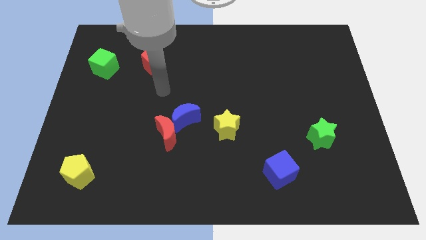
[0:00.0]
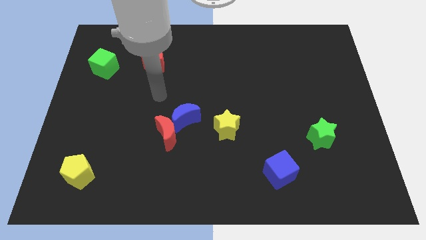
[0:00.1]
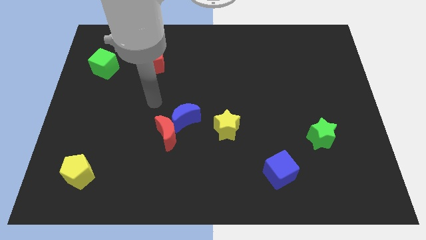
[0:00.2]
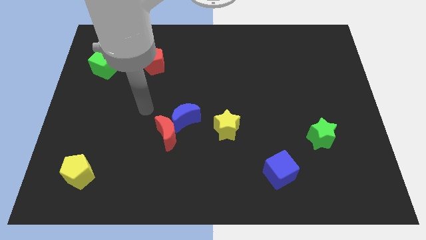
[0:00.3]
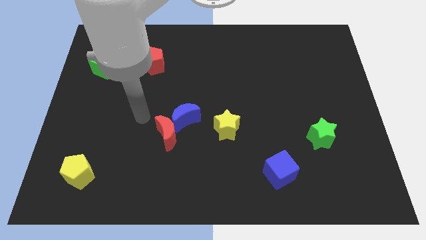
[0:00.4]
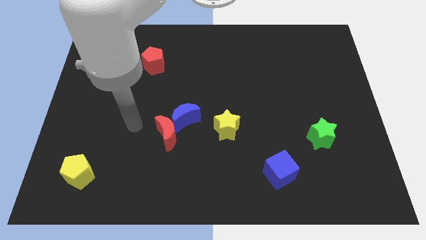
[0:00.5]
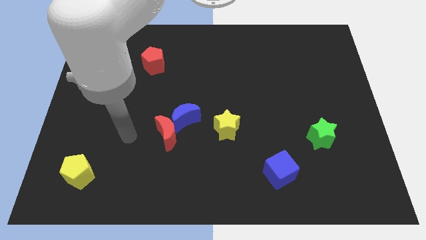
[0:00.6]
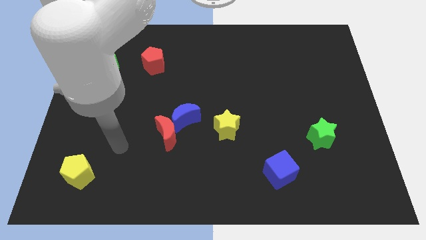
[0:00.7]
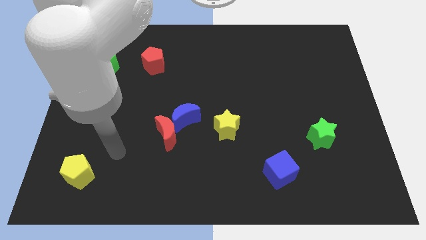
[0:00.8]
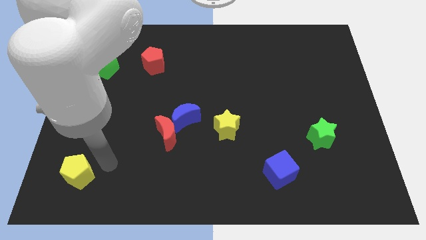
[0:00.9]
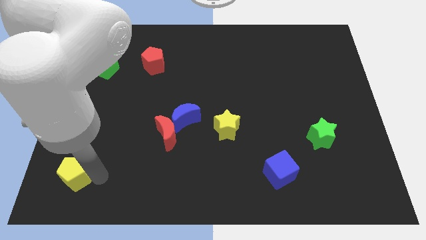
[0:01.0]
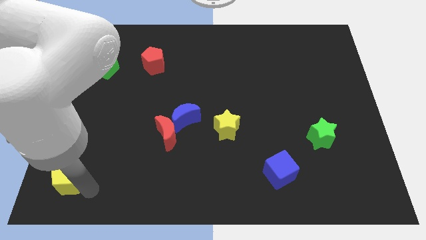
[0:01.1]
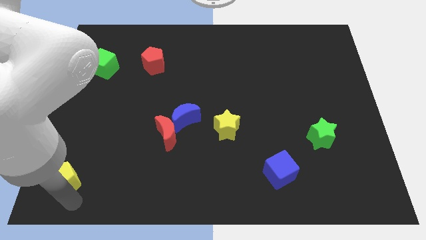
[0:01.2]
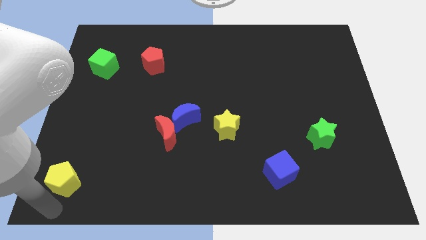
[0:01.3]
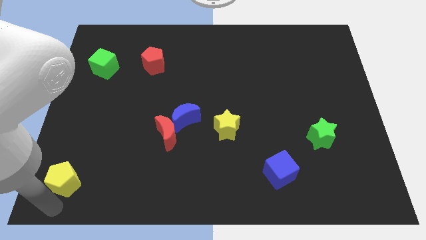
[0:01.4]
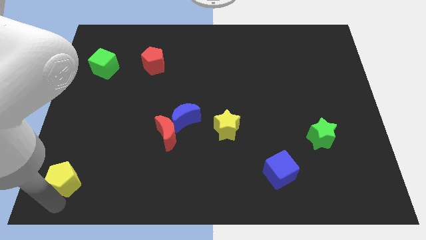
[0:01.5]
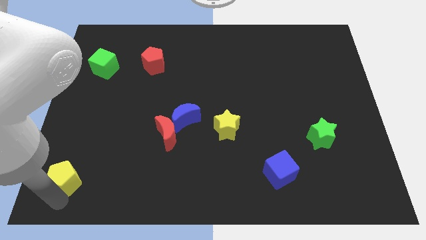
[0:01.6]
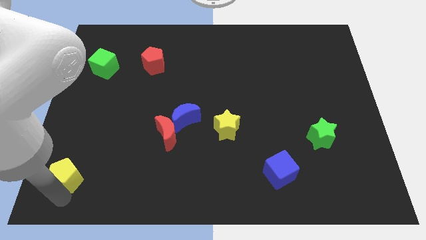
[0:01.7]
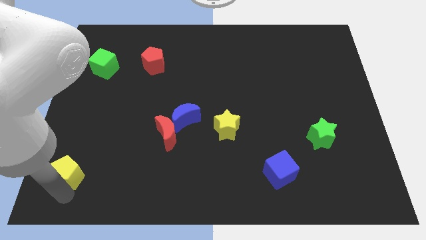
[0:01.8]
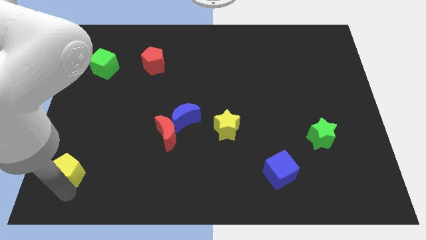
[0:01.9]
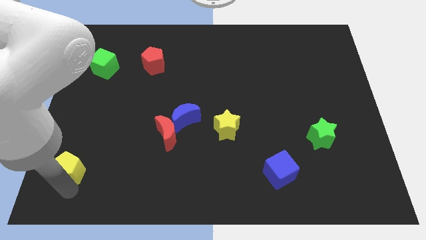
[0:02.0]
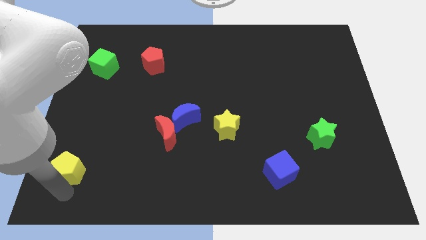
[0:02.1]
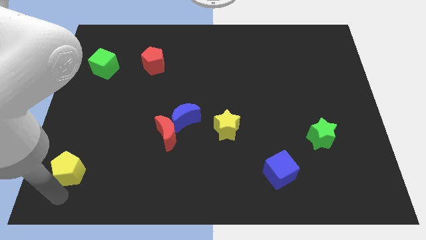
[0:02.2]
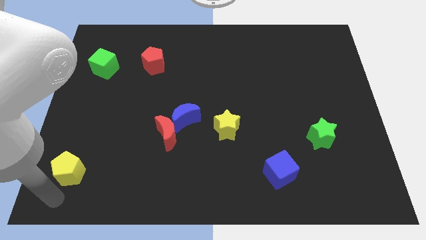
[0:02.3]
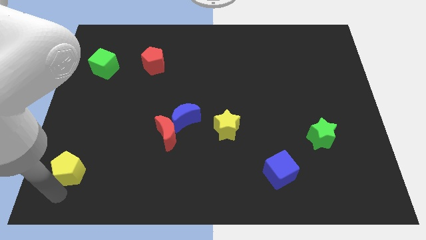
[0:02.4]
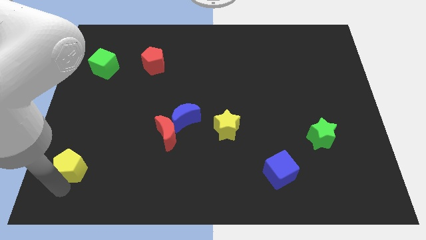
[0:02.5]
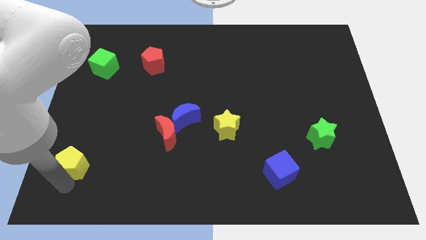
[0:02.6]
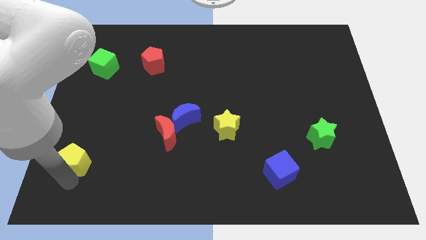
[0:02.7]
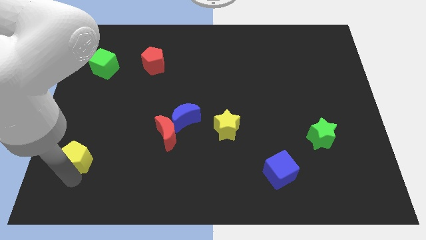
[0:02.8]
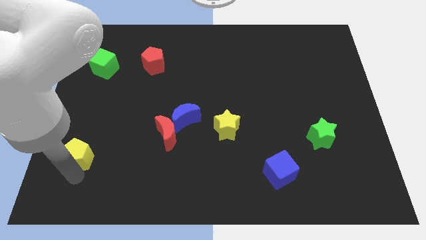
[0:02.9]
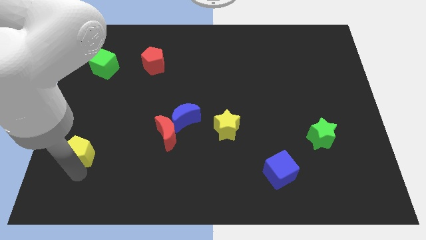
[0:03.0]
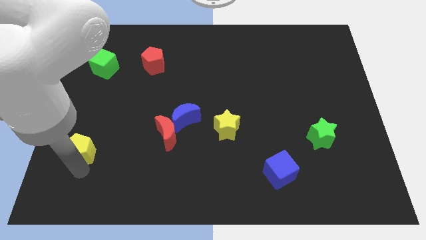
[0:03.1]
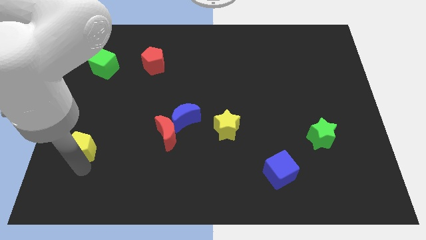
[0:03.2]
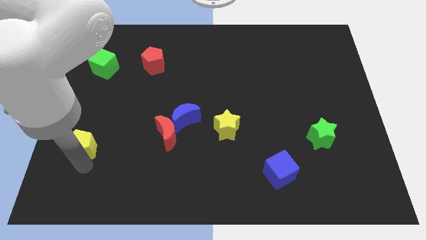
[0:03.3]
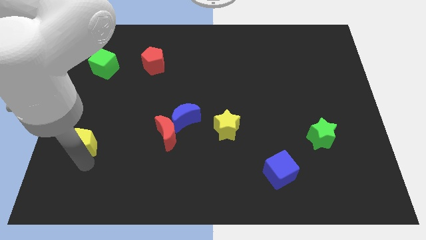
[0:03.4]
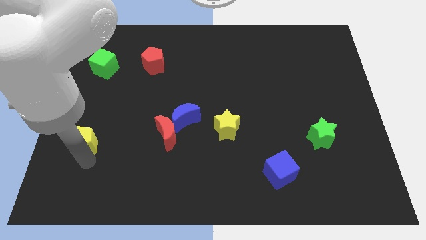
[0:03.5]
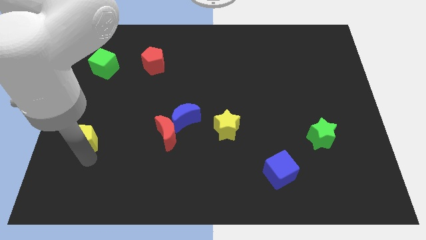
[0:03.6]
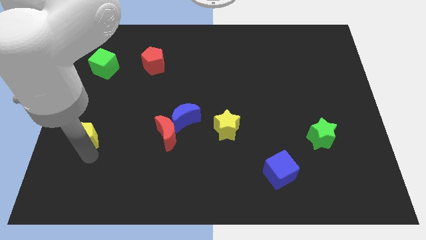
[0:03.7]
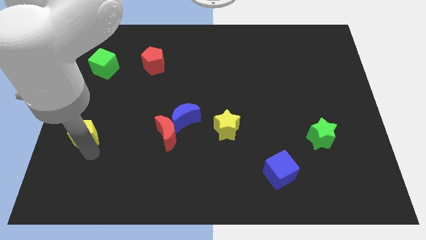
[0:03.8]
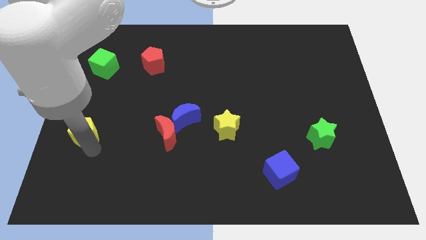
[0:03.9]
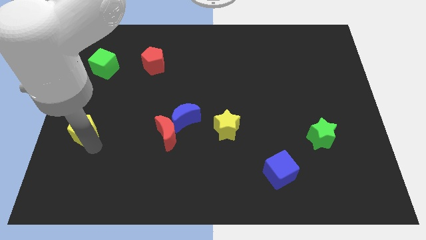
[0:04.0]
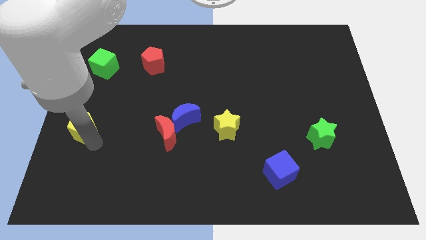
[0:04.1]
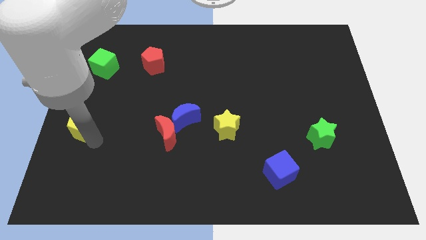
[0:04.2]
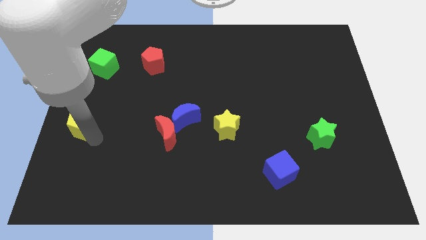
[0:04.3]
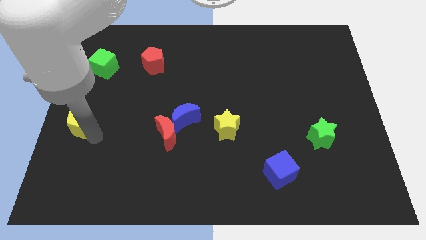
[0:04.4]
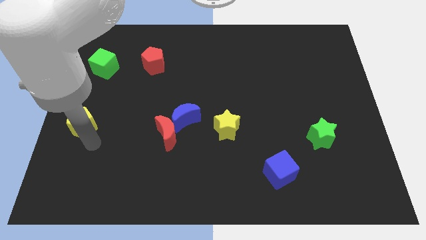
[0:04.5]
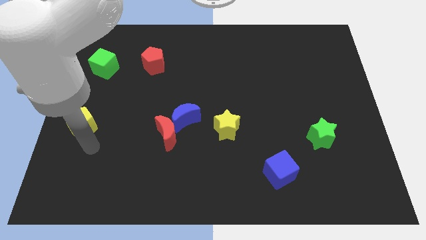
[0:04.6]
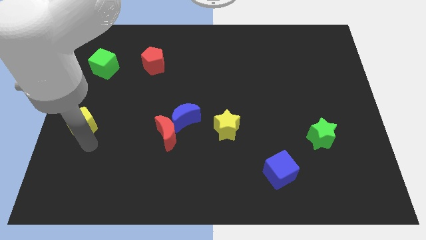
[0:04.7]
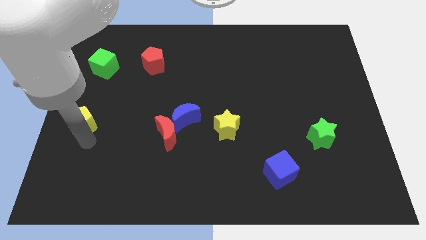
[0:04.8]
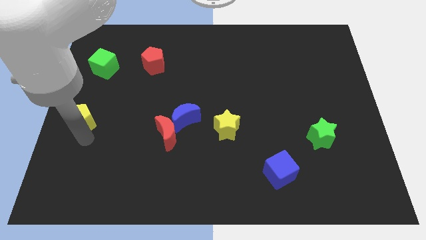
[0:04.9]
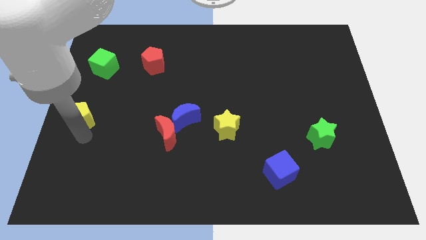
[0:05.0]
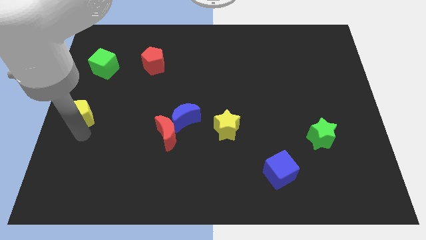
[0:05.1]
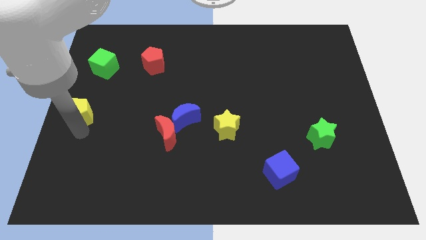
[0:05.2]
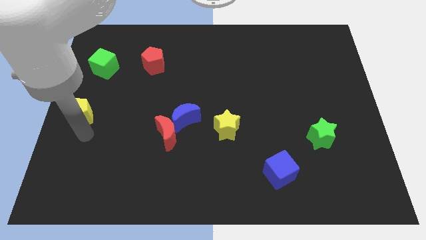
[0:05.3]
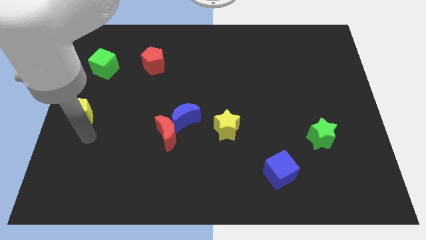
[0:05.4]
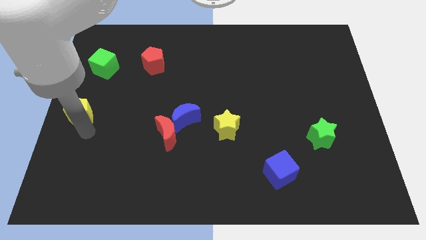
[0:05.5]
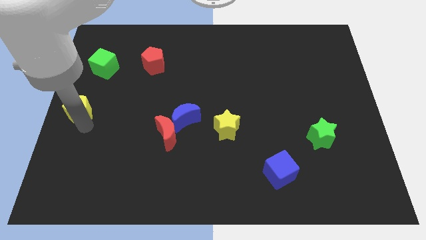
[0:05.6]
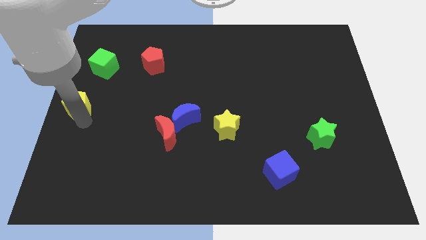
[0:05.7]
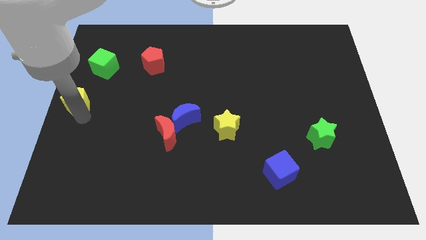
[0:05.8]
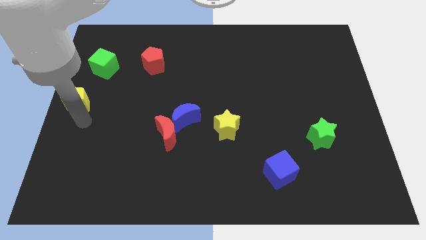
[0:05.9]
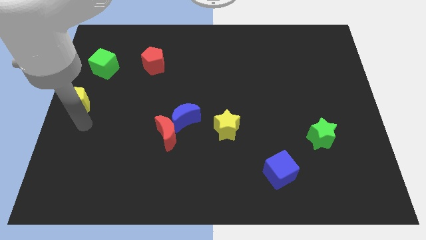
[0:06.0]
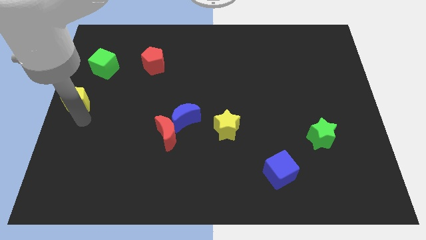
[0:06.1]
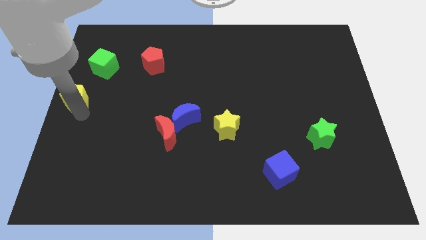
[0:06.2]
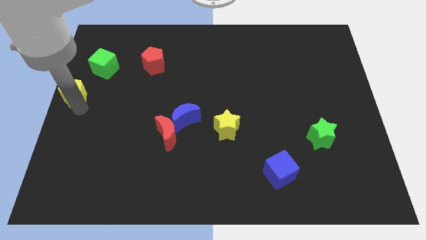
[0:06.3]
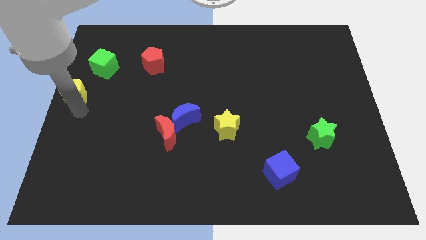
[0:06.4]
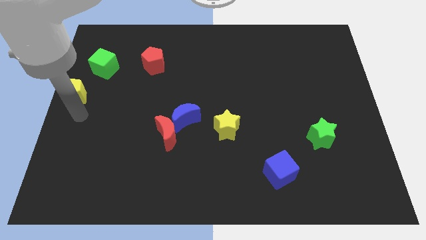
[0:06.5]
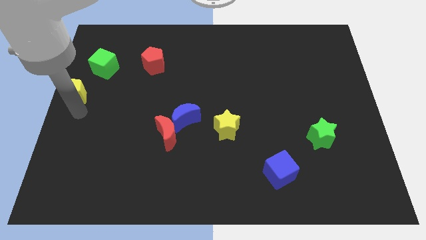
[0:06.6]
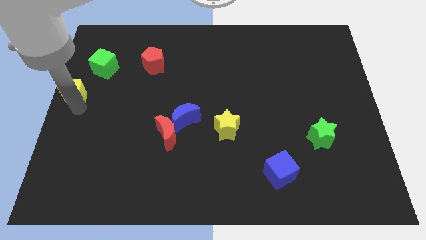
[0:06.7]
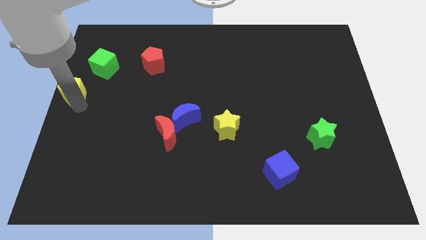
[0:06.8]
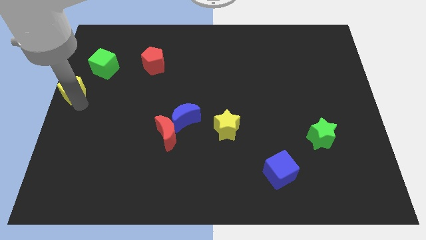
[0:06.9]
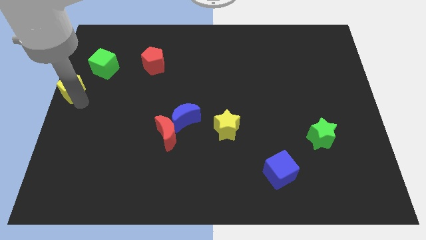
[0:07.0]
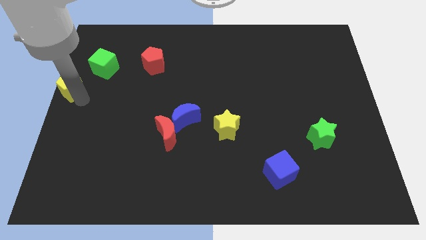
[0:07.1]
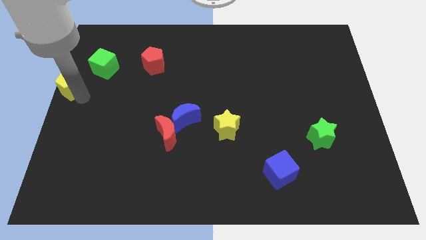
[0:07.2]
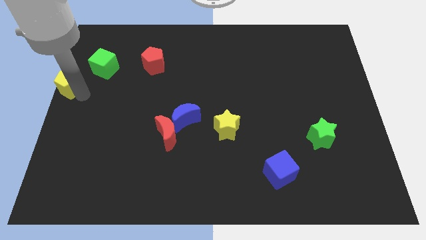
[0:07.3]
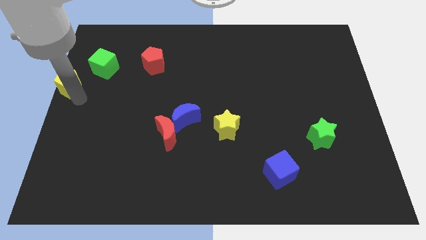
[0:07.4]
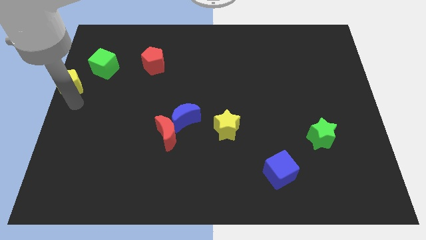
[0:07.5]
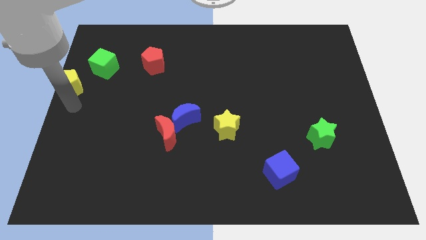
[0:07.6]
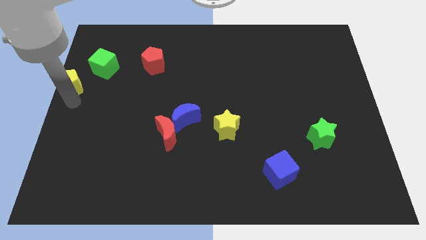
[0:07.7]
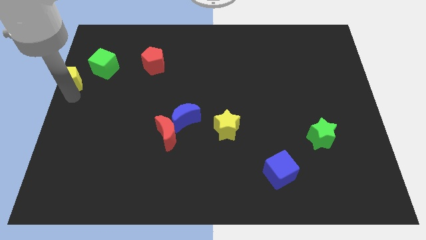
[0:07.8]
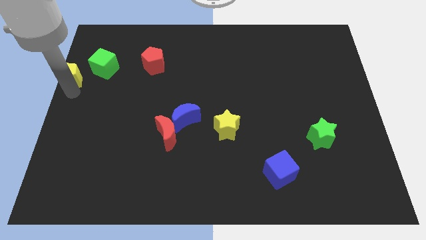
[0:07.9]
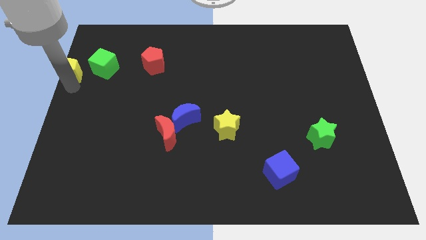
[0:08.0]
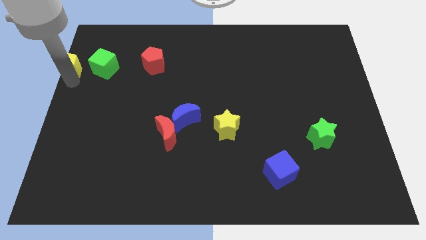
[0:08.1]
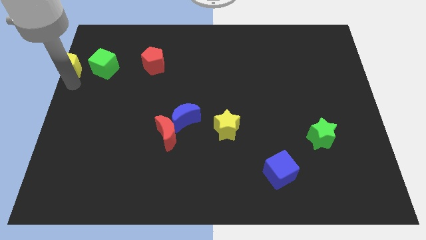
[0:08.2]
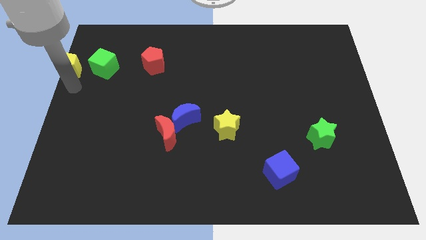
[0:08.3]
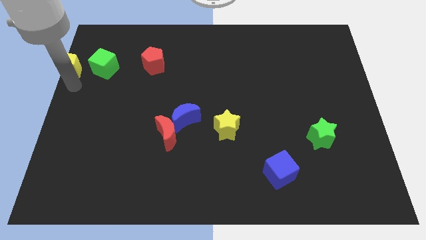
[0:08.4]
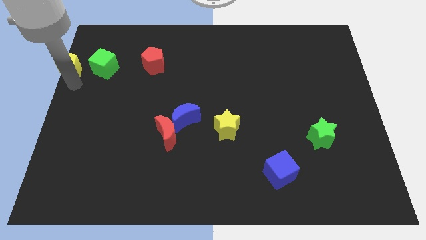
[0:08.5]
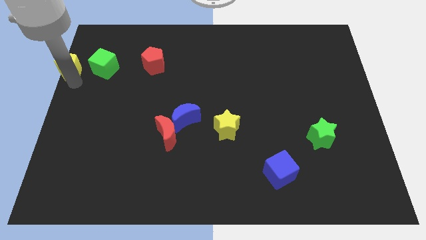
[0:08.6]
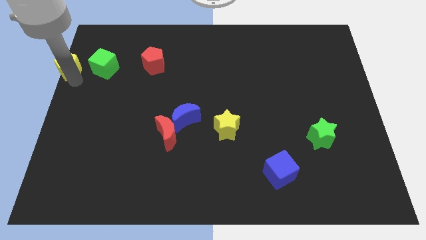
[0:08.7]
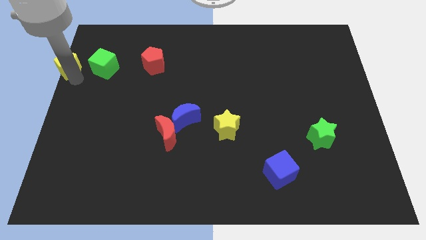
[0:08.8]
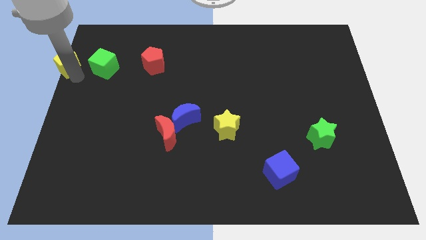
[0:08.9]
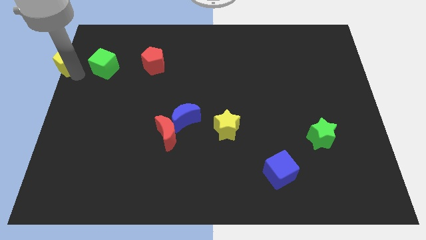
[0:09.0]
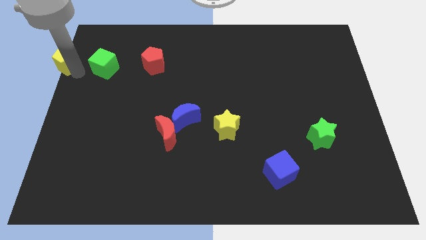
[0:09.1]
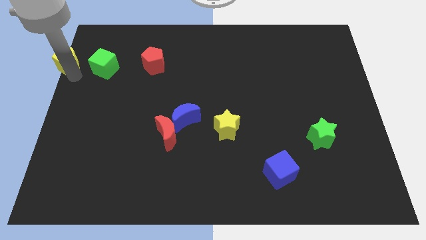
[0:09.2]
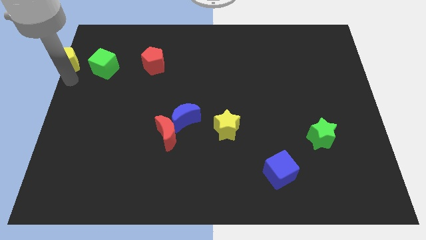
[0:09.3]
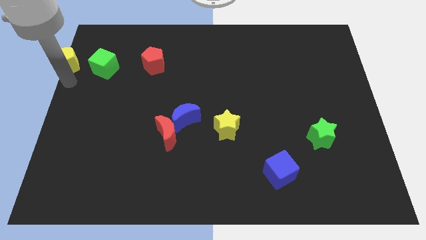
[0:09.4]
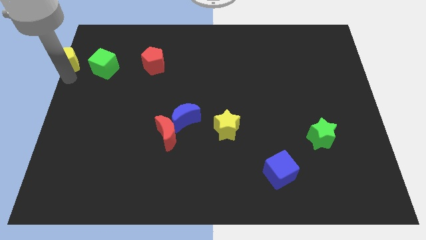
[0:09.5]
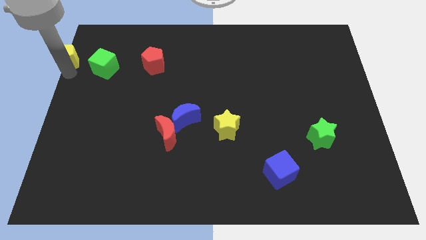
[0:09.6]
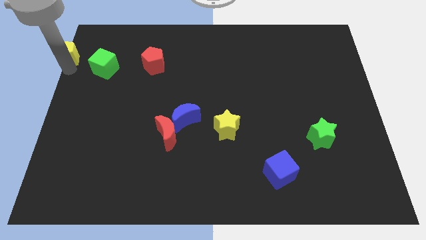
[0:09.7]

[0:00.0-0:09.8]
put the yellow pentagon to the top left of the board
